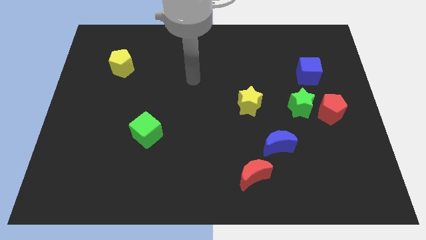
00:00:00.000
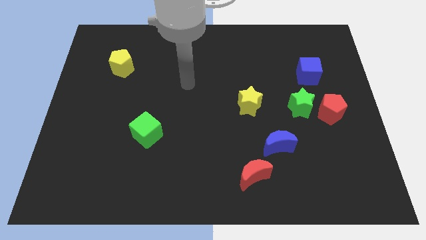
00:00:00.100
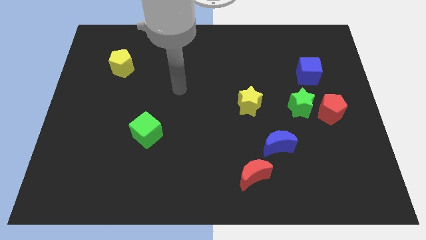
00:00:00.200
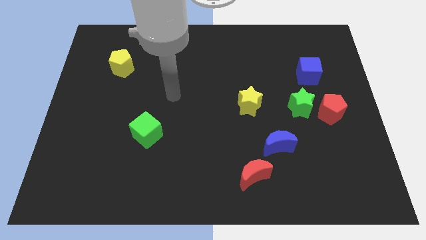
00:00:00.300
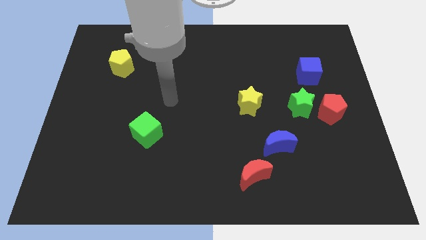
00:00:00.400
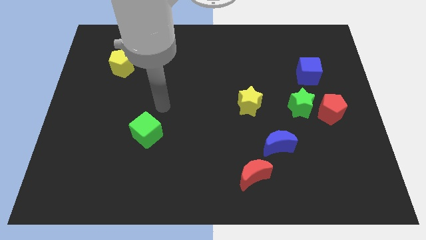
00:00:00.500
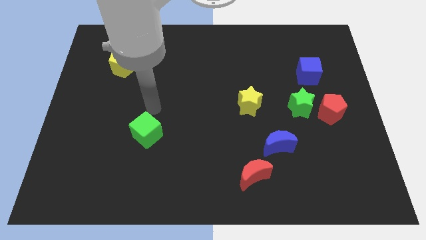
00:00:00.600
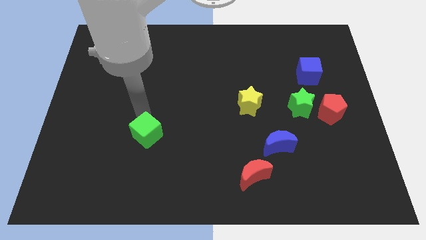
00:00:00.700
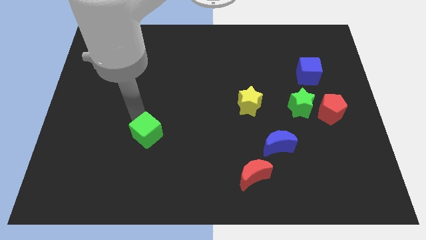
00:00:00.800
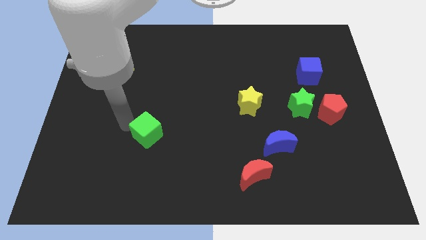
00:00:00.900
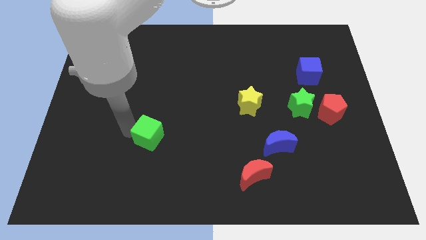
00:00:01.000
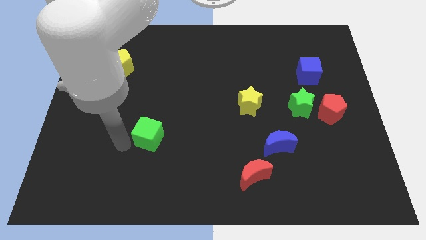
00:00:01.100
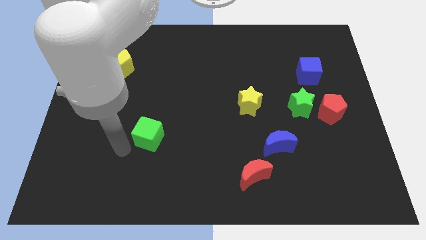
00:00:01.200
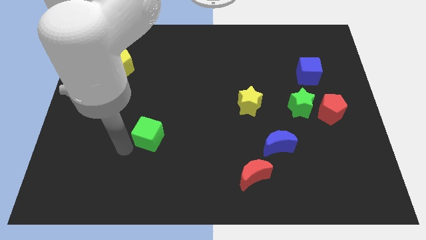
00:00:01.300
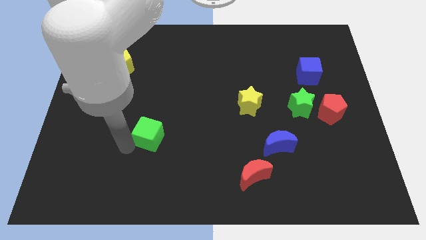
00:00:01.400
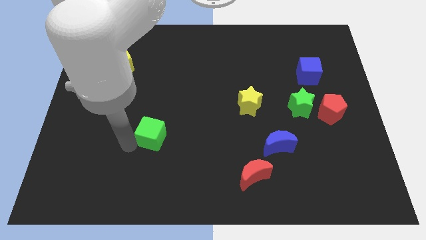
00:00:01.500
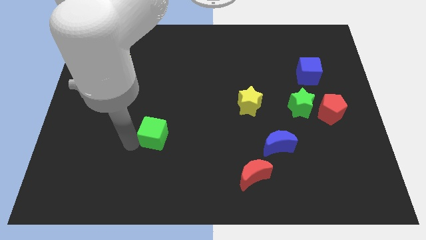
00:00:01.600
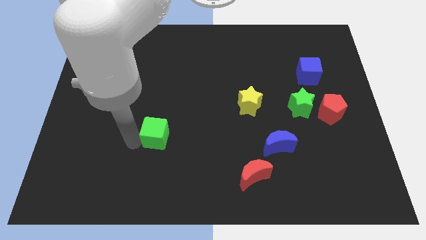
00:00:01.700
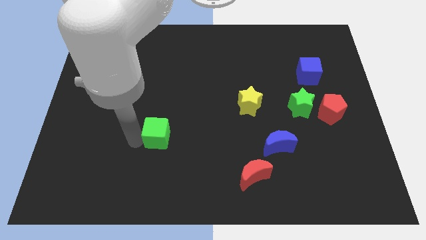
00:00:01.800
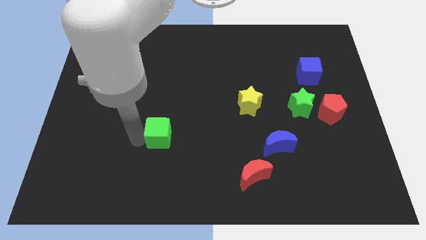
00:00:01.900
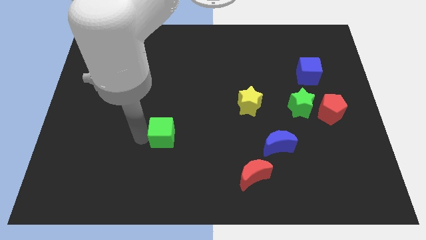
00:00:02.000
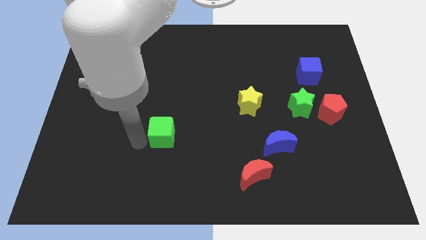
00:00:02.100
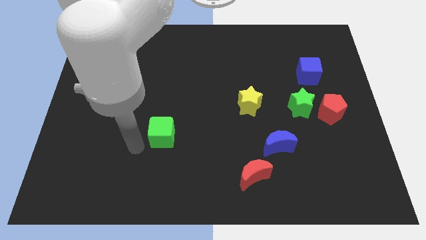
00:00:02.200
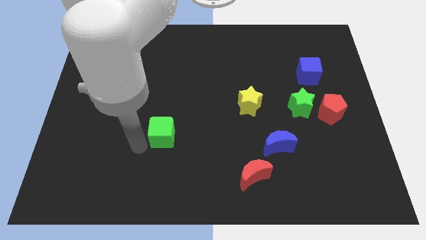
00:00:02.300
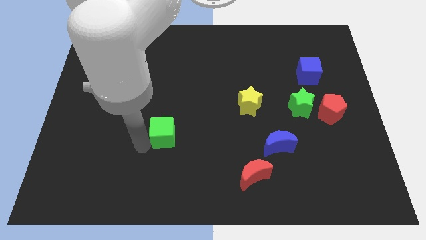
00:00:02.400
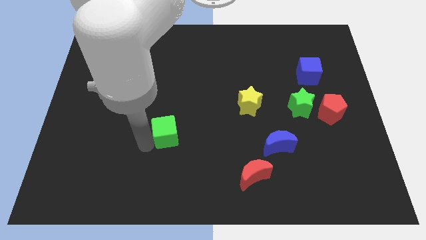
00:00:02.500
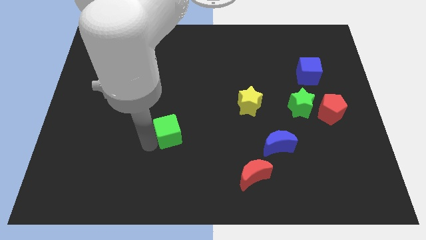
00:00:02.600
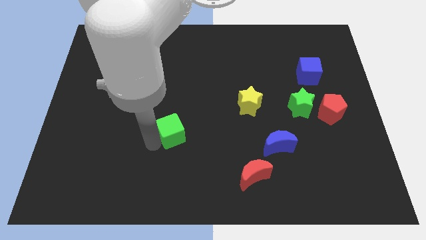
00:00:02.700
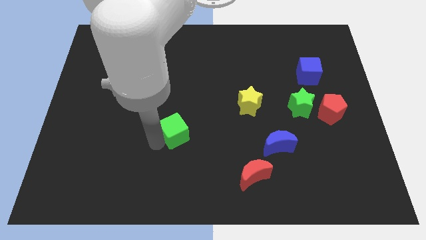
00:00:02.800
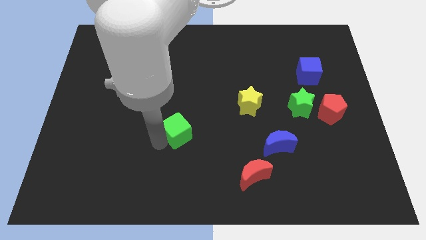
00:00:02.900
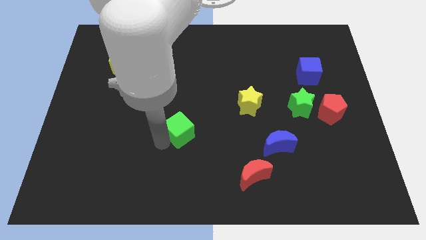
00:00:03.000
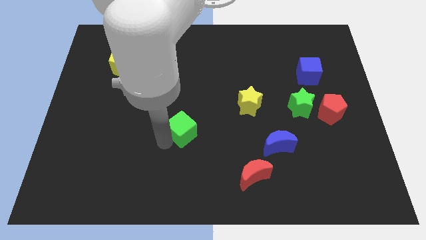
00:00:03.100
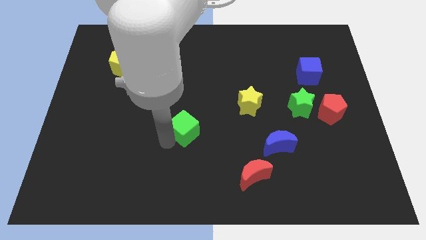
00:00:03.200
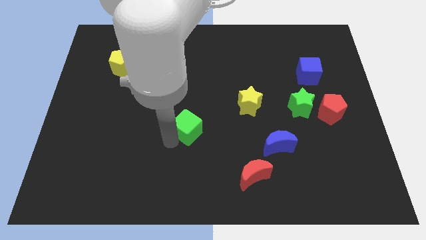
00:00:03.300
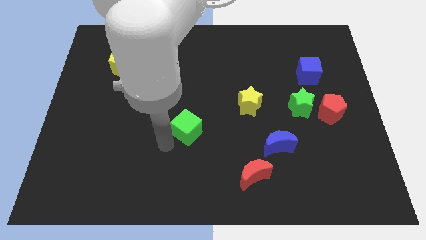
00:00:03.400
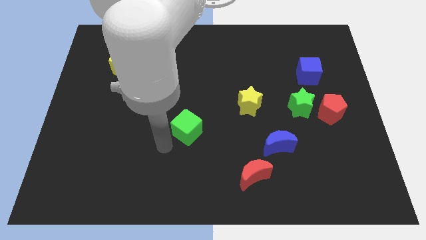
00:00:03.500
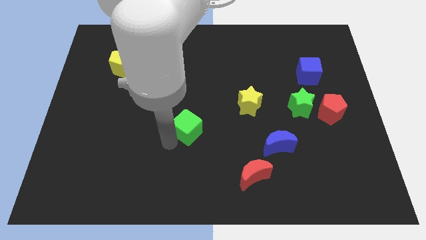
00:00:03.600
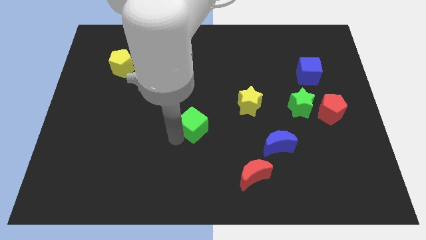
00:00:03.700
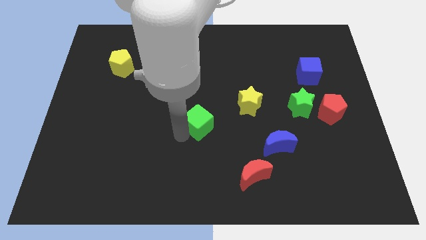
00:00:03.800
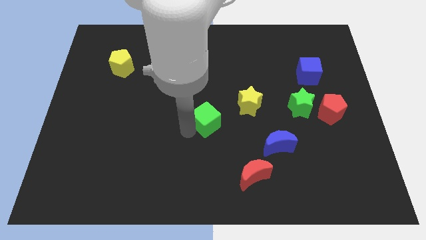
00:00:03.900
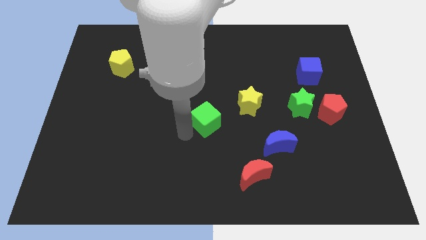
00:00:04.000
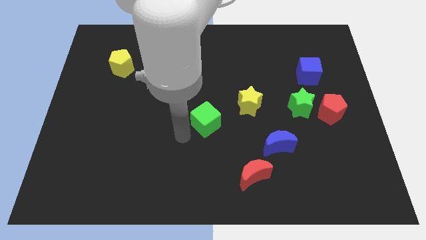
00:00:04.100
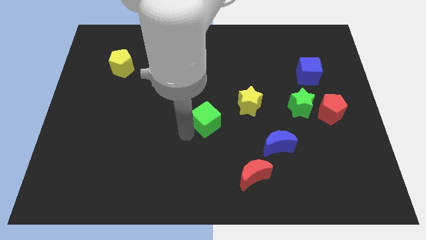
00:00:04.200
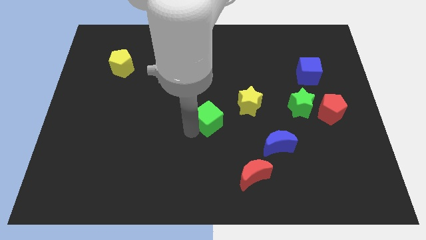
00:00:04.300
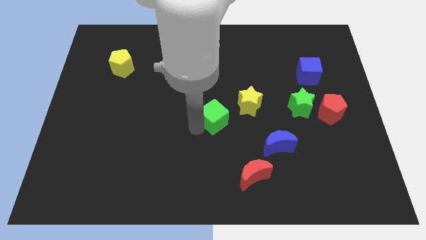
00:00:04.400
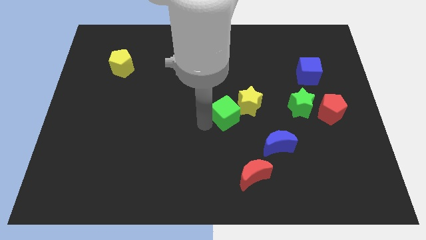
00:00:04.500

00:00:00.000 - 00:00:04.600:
slide the green cube close to the yellow star

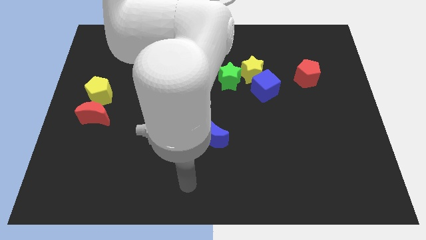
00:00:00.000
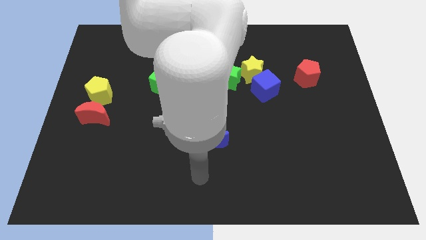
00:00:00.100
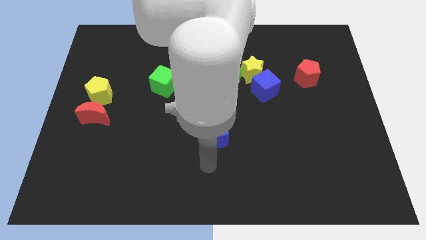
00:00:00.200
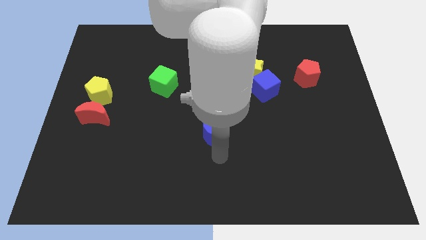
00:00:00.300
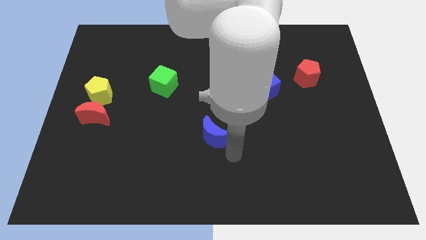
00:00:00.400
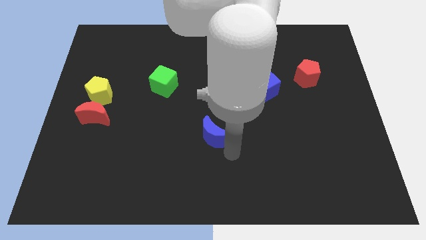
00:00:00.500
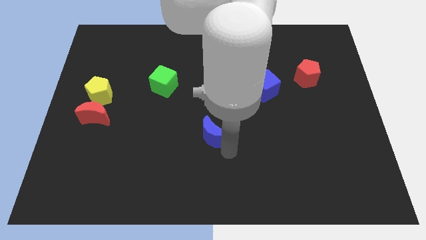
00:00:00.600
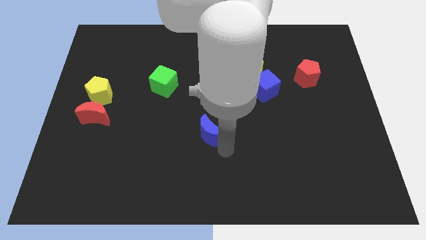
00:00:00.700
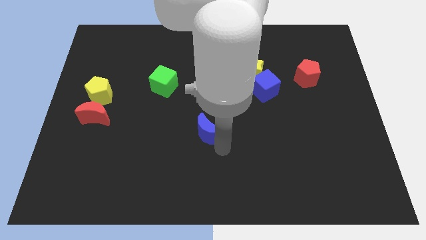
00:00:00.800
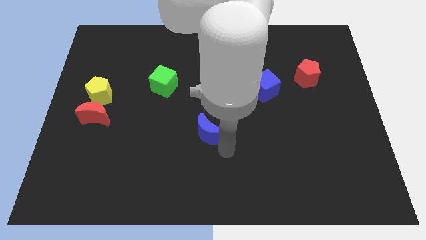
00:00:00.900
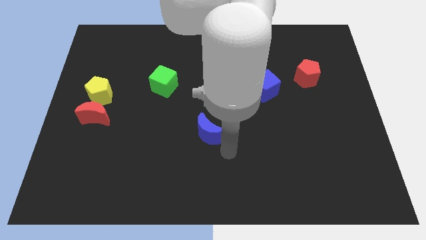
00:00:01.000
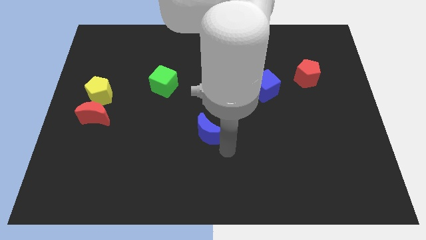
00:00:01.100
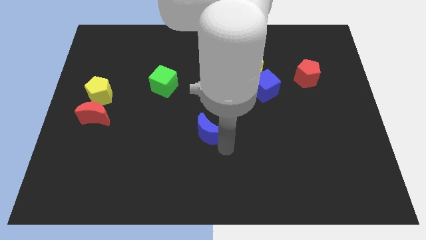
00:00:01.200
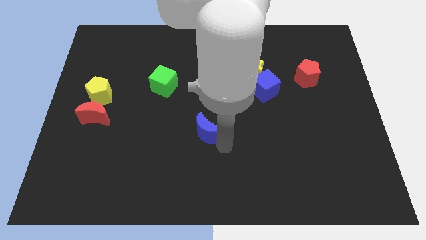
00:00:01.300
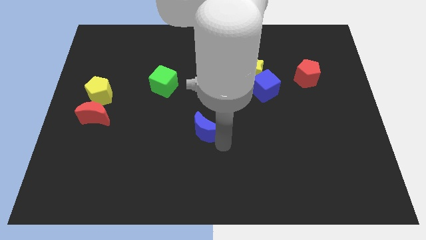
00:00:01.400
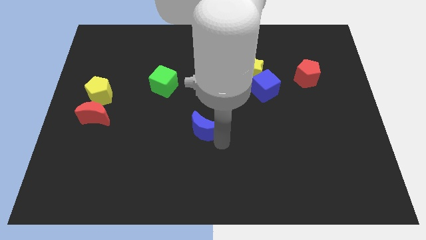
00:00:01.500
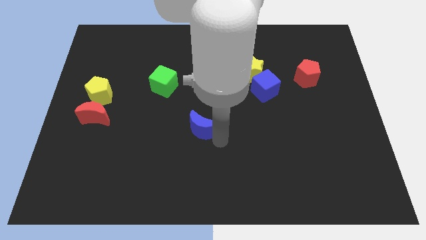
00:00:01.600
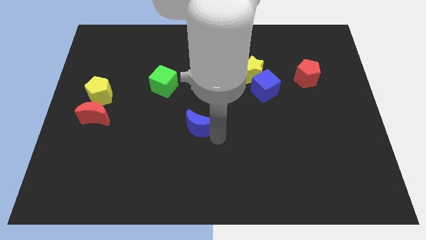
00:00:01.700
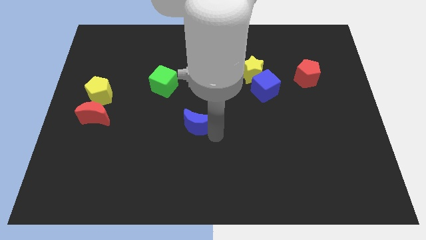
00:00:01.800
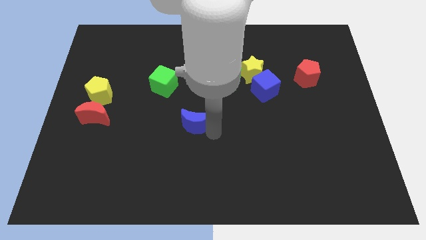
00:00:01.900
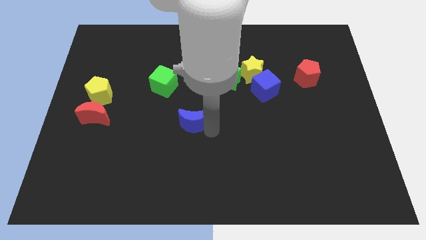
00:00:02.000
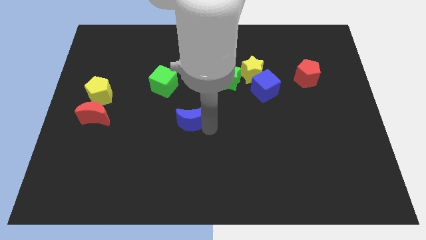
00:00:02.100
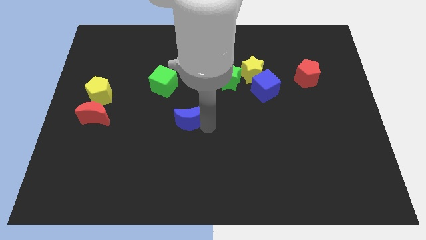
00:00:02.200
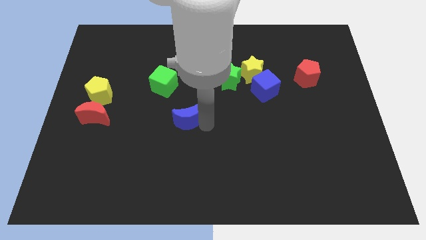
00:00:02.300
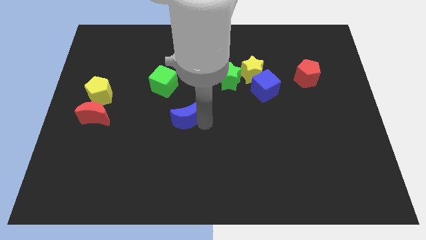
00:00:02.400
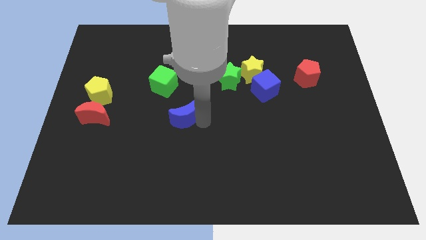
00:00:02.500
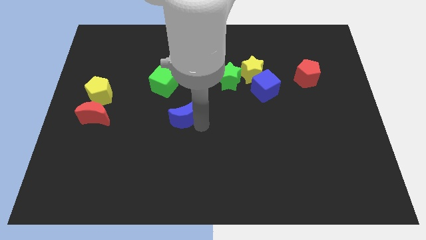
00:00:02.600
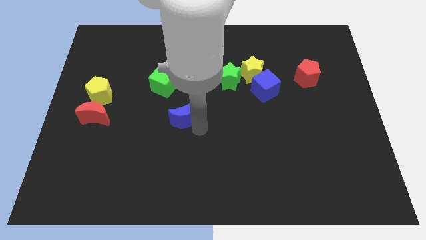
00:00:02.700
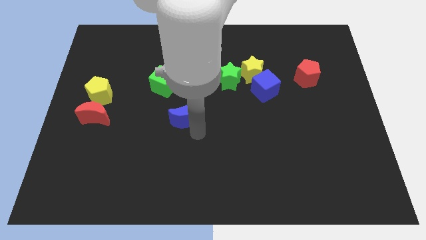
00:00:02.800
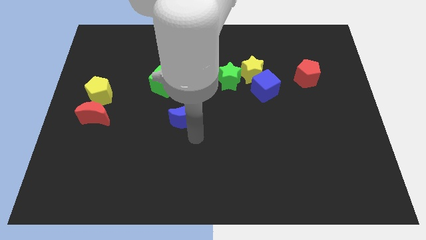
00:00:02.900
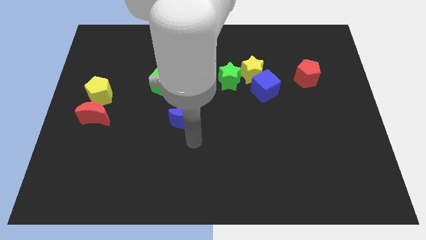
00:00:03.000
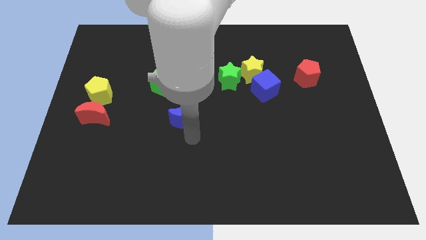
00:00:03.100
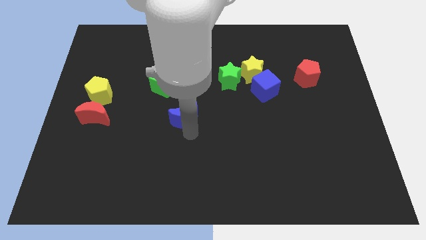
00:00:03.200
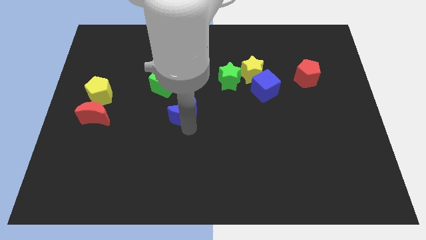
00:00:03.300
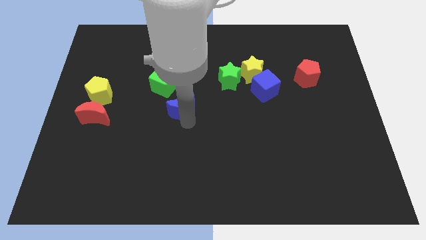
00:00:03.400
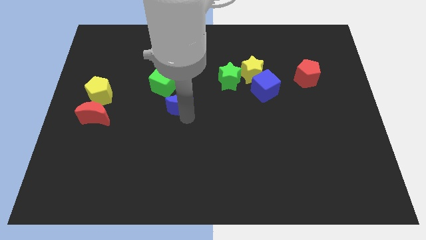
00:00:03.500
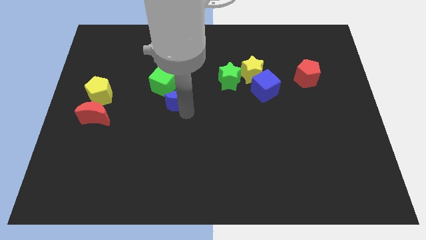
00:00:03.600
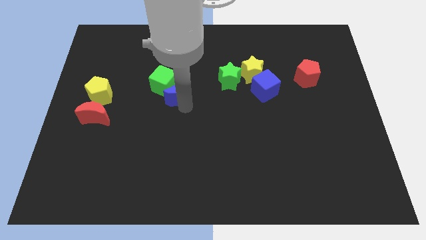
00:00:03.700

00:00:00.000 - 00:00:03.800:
slide the blue moon towards the green cube
